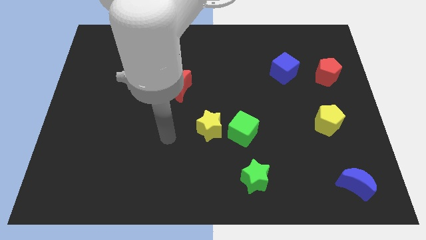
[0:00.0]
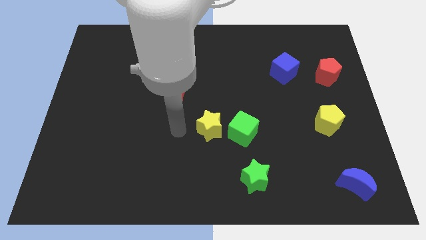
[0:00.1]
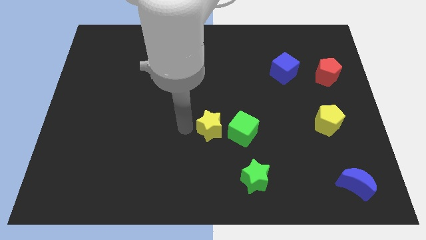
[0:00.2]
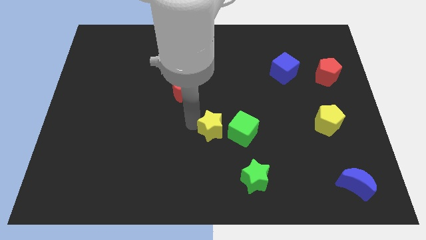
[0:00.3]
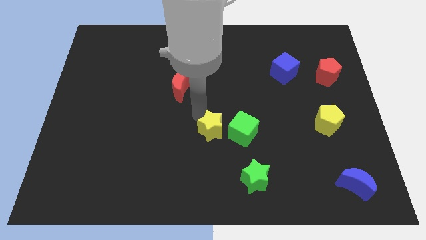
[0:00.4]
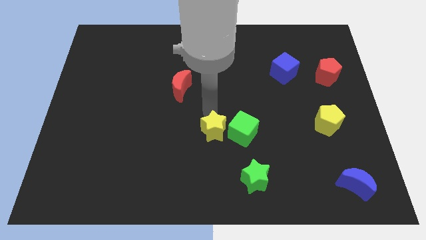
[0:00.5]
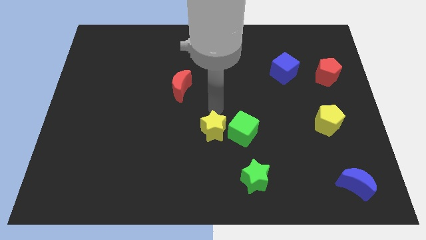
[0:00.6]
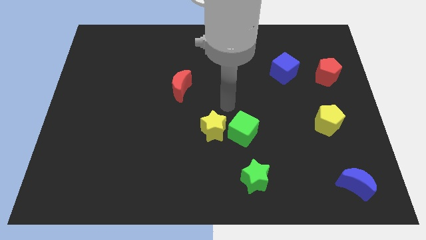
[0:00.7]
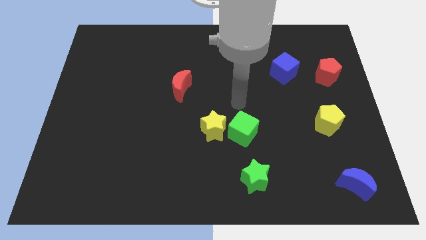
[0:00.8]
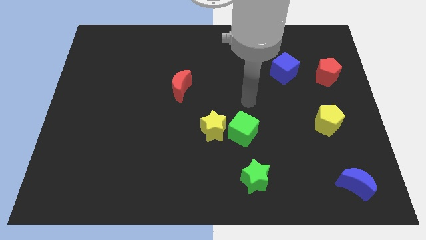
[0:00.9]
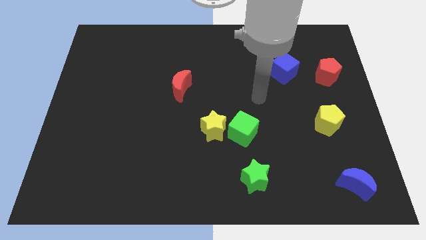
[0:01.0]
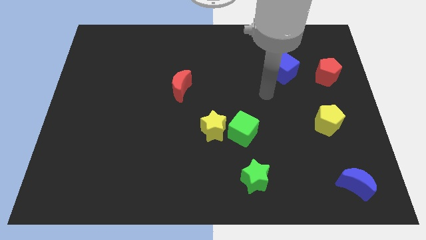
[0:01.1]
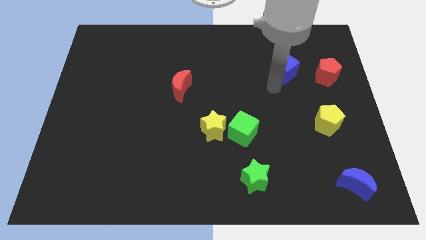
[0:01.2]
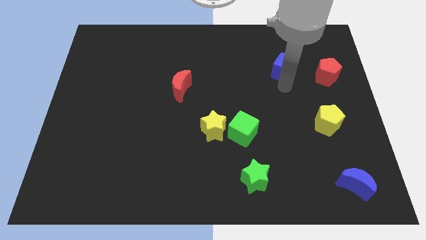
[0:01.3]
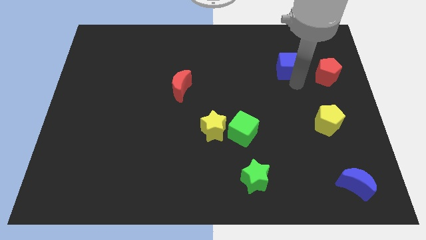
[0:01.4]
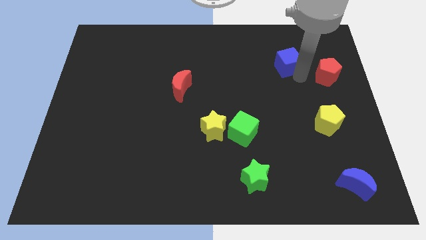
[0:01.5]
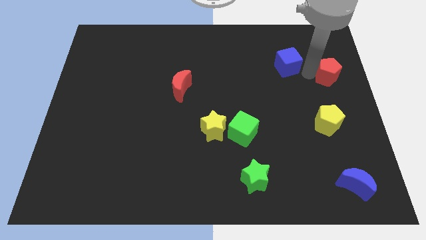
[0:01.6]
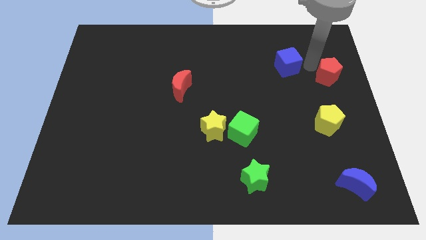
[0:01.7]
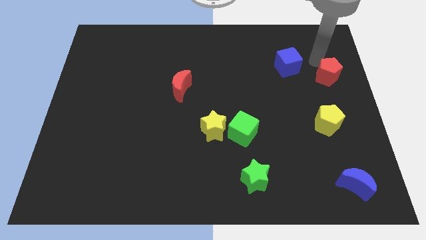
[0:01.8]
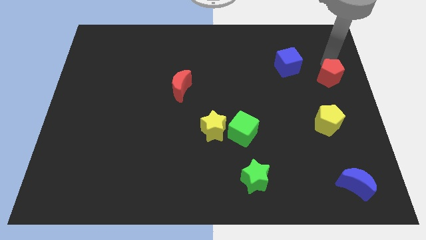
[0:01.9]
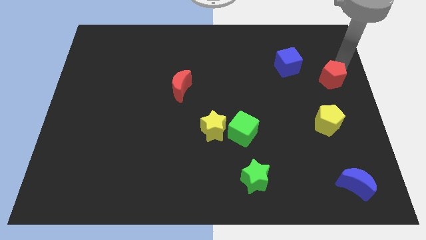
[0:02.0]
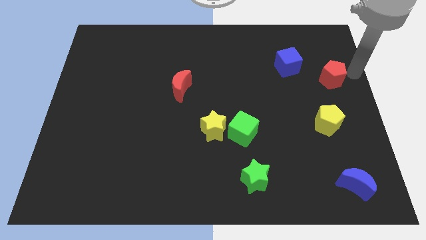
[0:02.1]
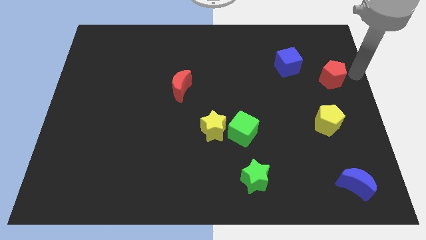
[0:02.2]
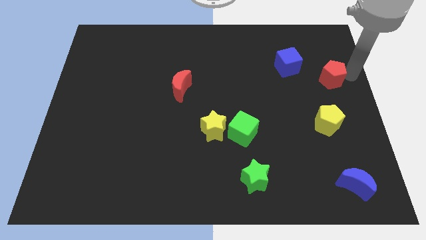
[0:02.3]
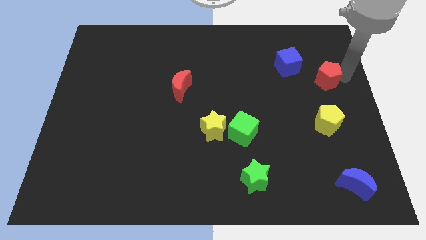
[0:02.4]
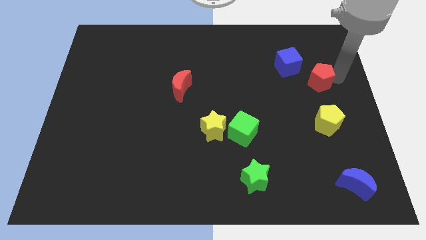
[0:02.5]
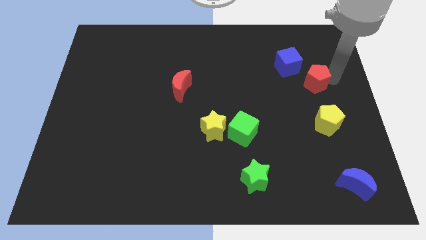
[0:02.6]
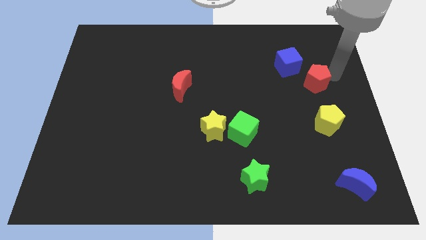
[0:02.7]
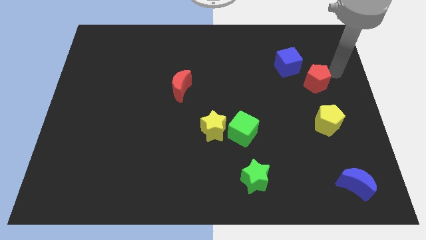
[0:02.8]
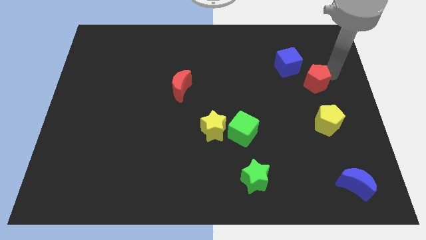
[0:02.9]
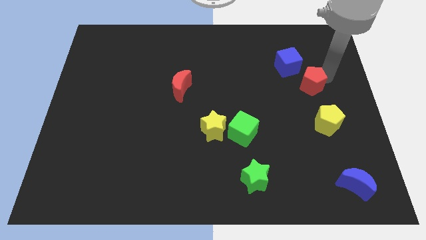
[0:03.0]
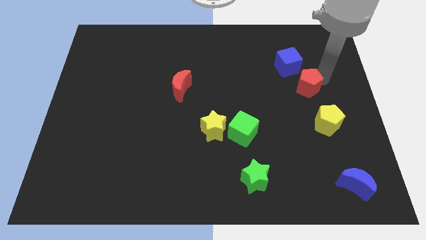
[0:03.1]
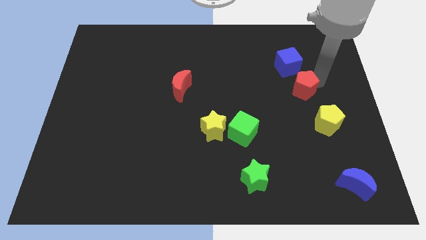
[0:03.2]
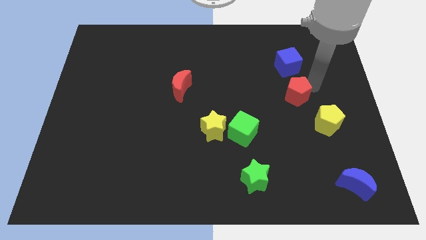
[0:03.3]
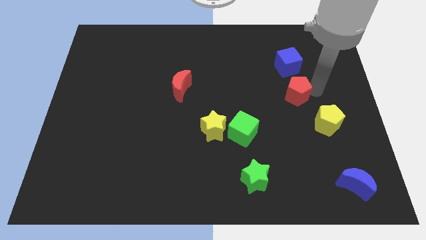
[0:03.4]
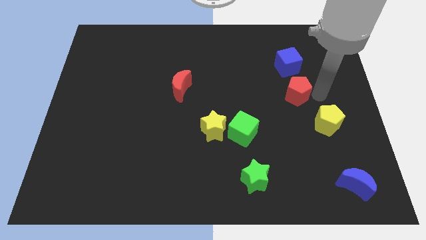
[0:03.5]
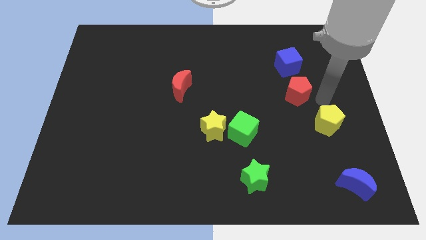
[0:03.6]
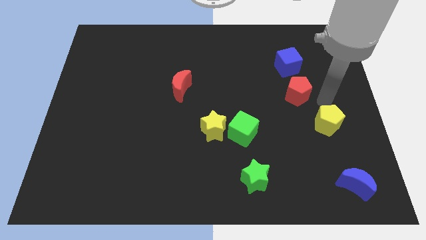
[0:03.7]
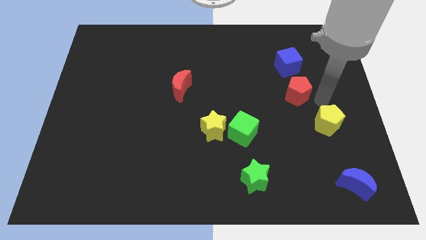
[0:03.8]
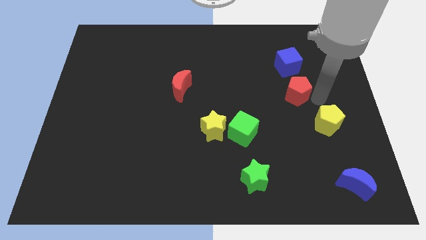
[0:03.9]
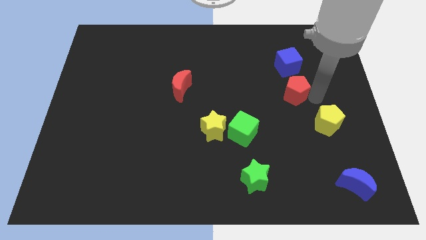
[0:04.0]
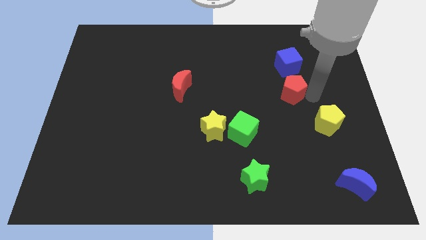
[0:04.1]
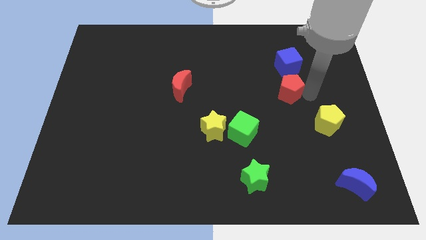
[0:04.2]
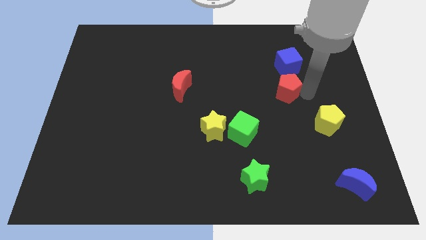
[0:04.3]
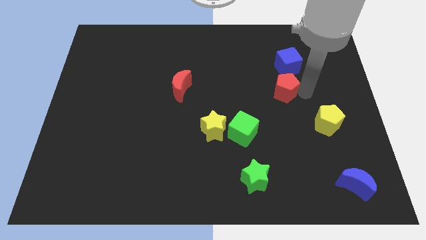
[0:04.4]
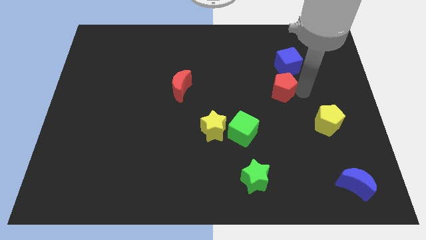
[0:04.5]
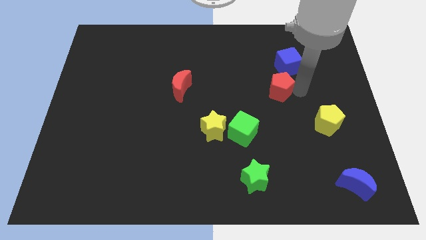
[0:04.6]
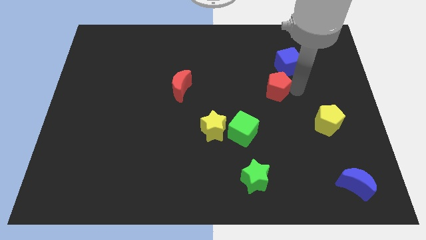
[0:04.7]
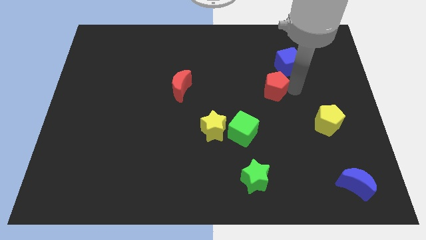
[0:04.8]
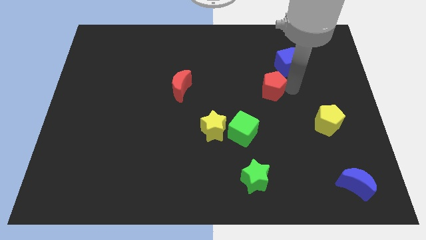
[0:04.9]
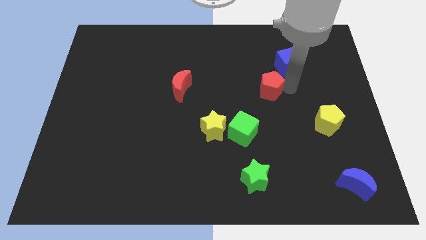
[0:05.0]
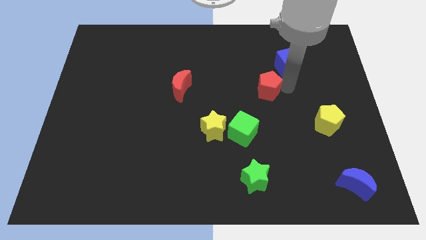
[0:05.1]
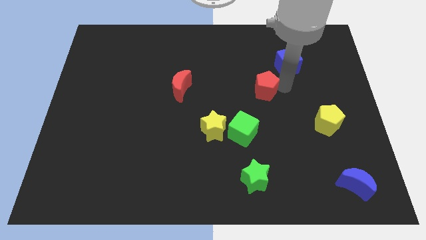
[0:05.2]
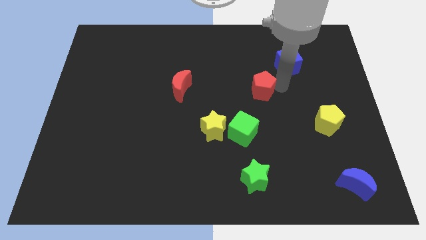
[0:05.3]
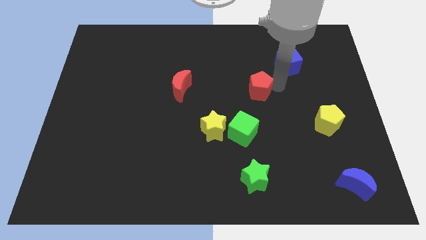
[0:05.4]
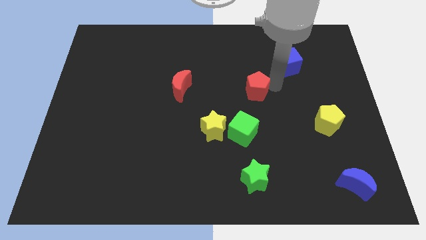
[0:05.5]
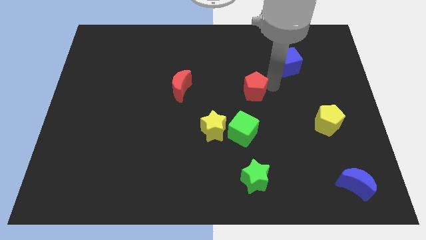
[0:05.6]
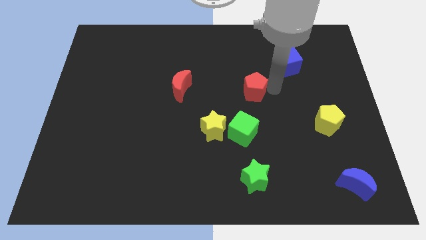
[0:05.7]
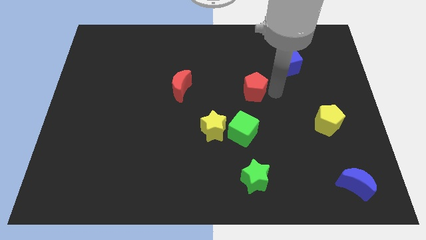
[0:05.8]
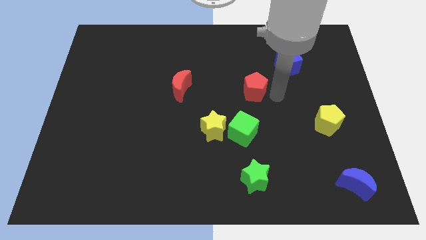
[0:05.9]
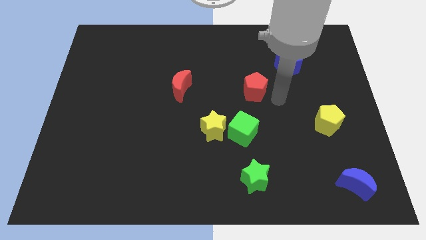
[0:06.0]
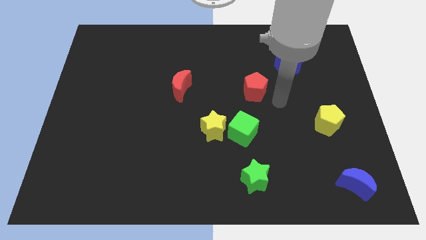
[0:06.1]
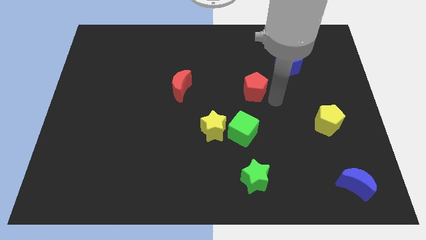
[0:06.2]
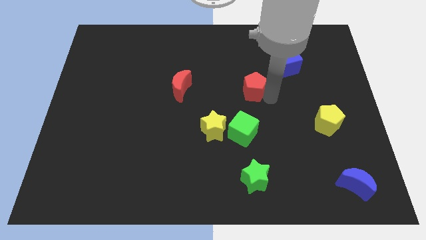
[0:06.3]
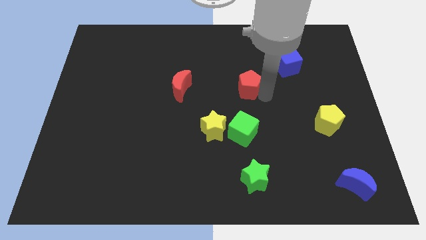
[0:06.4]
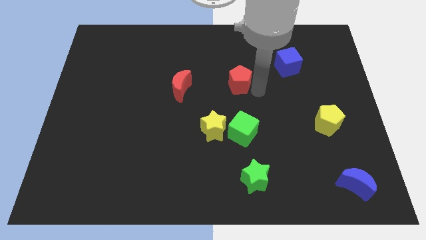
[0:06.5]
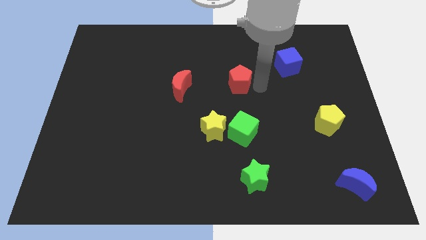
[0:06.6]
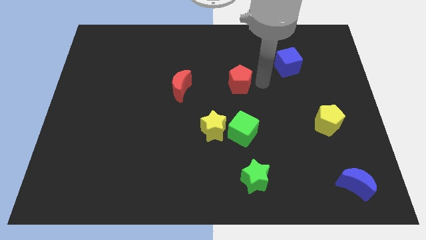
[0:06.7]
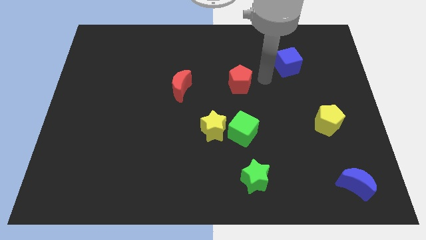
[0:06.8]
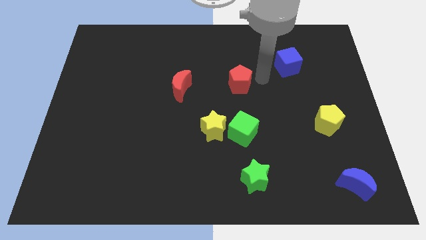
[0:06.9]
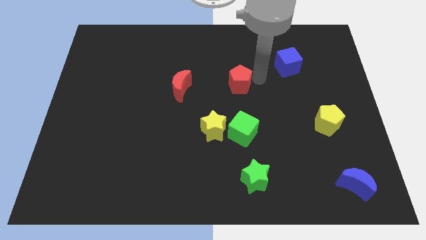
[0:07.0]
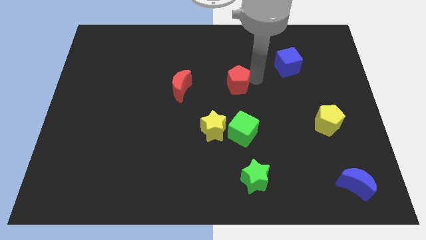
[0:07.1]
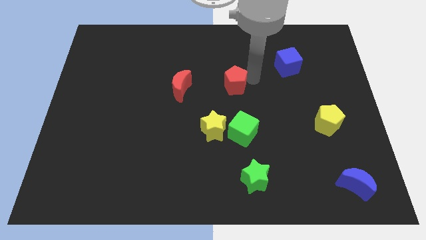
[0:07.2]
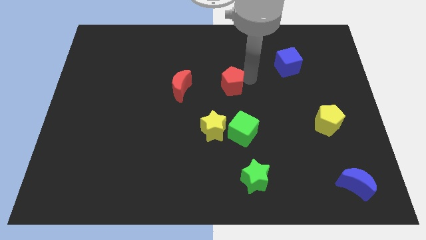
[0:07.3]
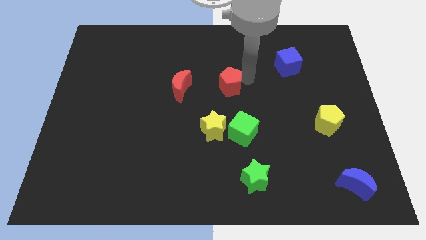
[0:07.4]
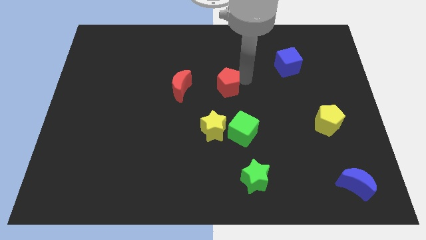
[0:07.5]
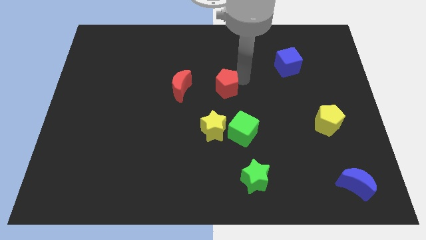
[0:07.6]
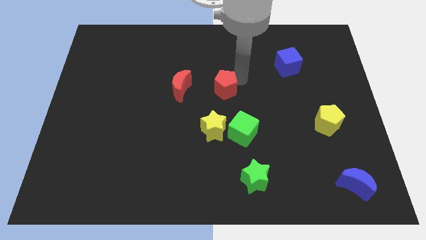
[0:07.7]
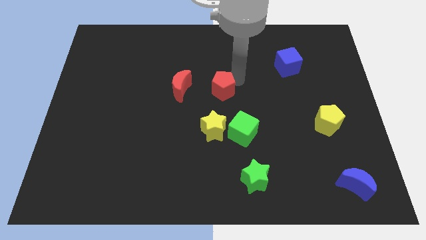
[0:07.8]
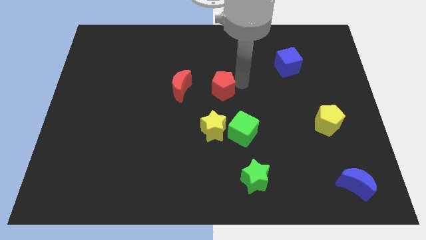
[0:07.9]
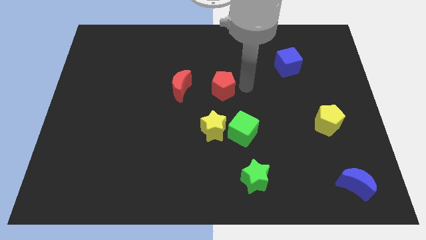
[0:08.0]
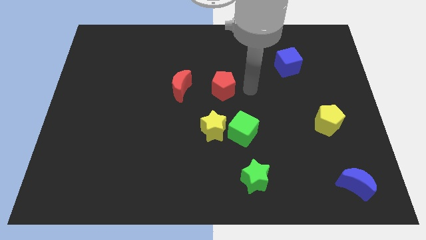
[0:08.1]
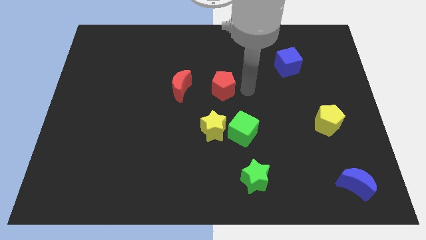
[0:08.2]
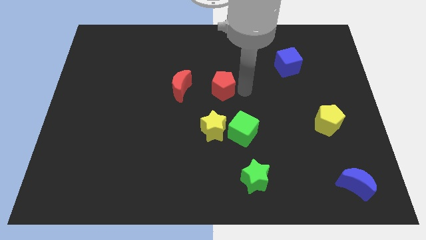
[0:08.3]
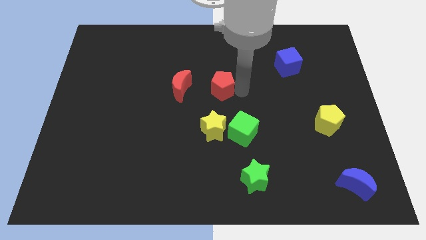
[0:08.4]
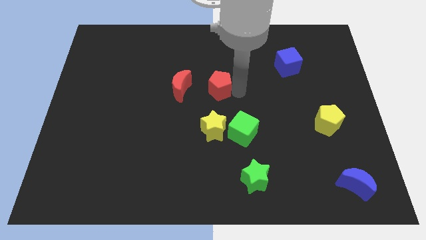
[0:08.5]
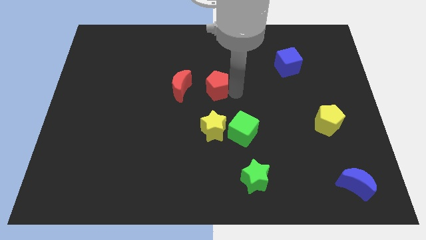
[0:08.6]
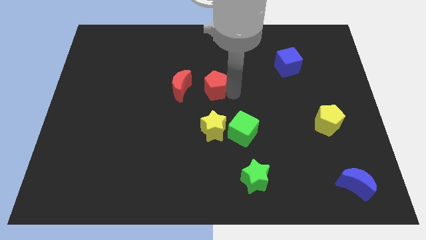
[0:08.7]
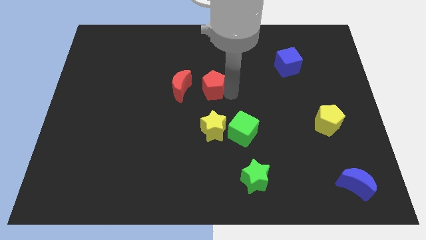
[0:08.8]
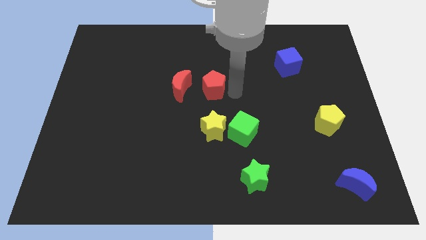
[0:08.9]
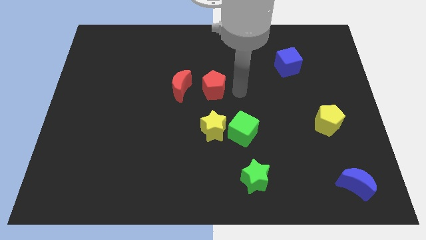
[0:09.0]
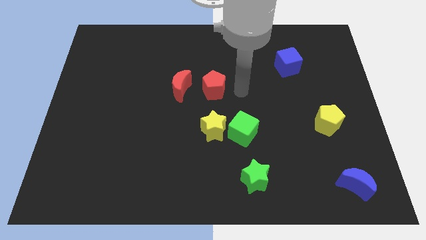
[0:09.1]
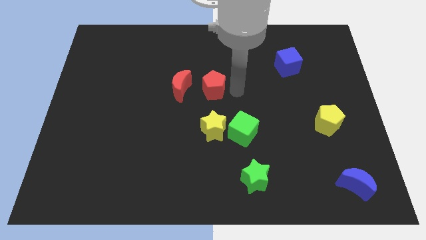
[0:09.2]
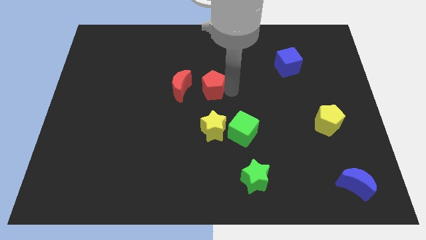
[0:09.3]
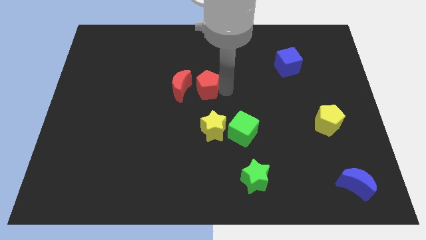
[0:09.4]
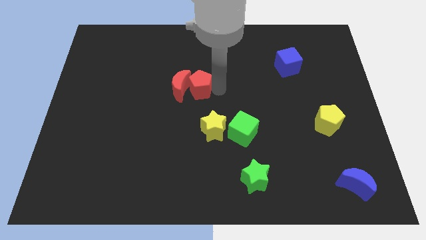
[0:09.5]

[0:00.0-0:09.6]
slide the red pentagon to the red moon
